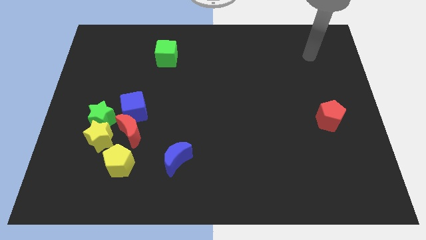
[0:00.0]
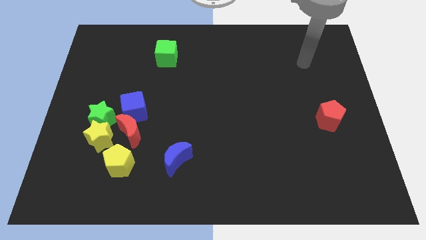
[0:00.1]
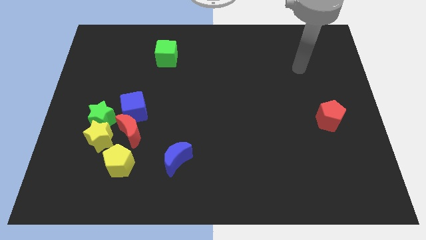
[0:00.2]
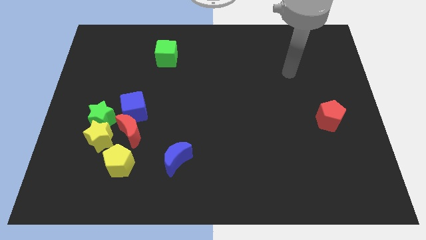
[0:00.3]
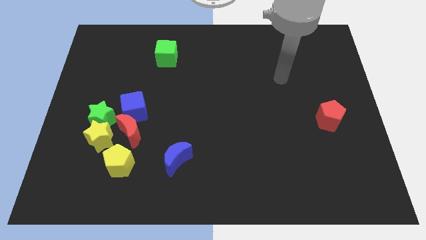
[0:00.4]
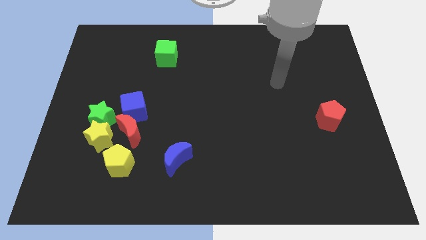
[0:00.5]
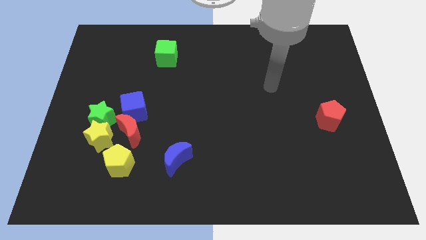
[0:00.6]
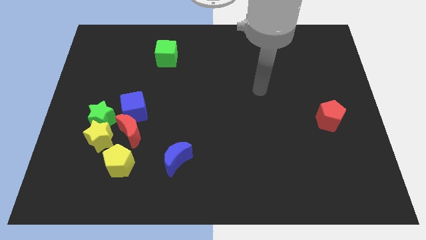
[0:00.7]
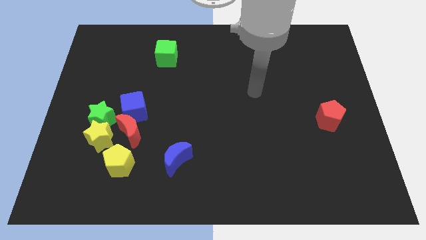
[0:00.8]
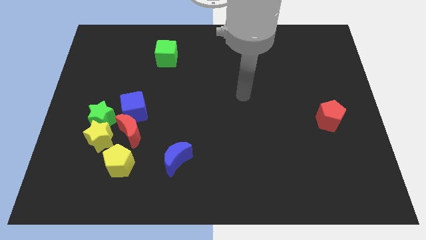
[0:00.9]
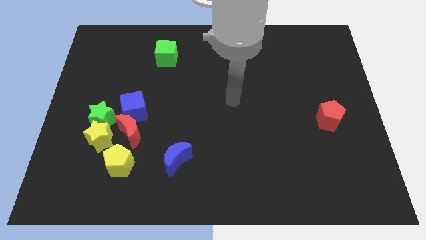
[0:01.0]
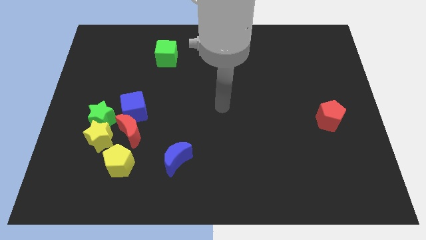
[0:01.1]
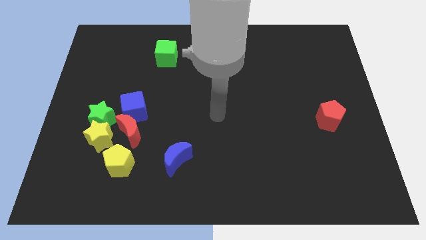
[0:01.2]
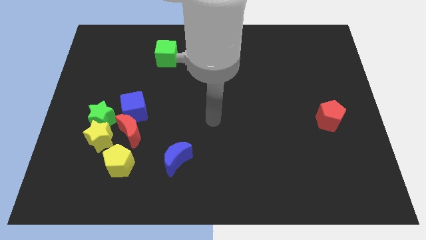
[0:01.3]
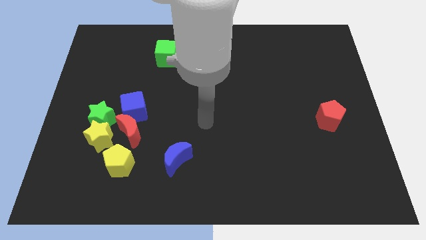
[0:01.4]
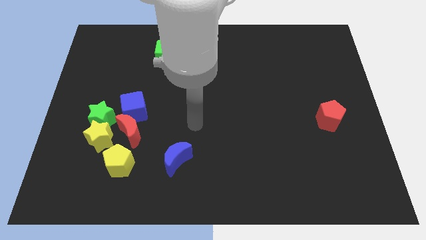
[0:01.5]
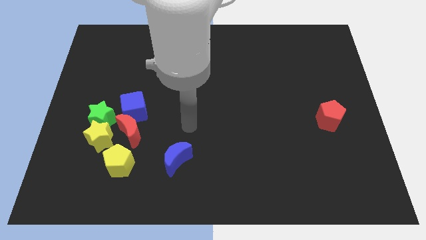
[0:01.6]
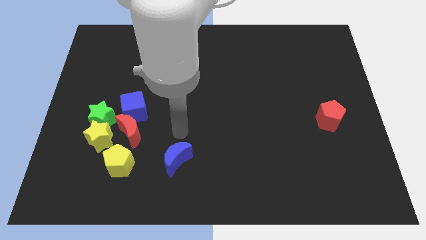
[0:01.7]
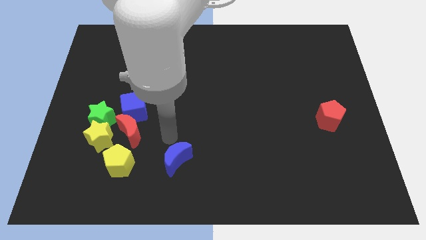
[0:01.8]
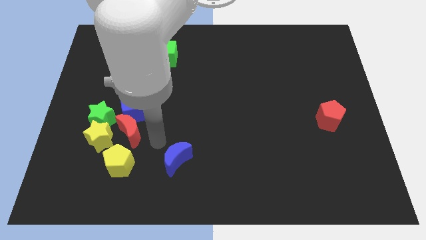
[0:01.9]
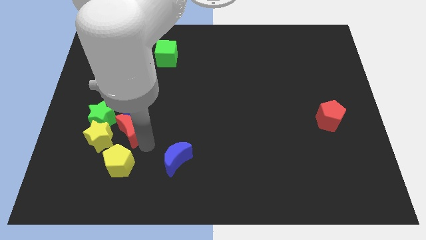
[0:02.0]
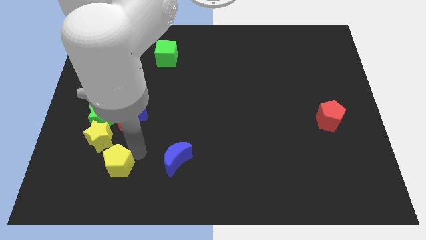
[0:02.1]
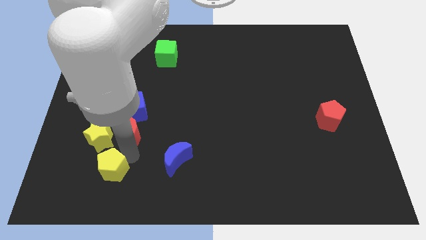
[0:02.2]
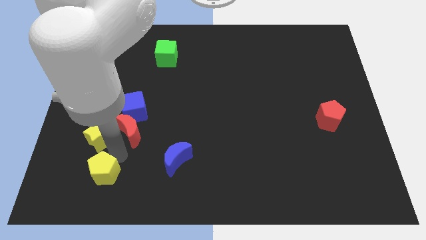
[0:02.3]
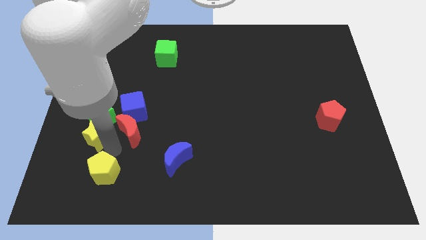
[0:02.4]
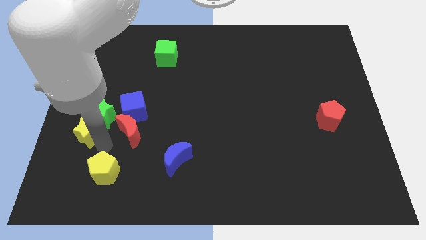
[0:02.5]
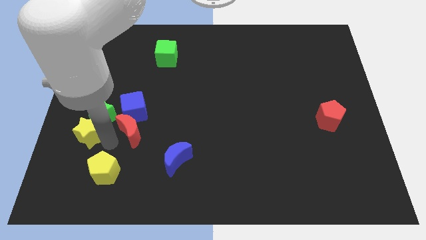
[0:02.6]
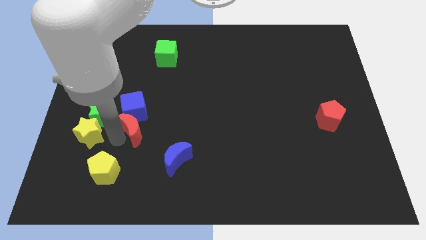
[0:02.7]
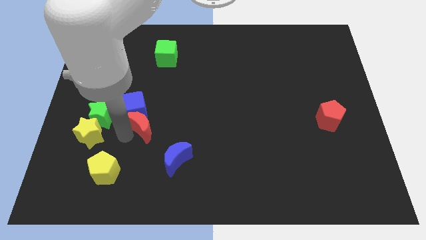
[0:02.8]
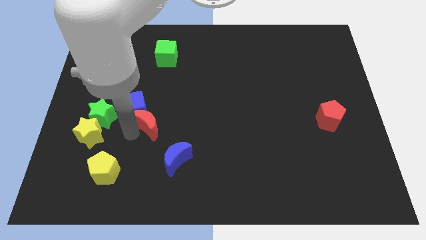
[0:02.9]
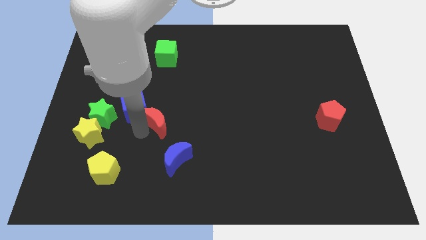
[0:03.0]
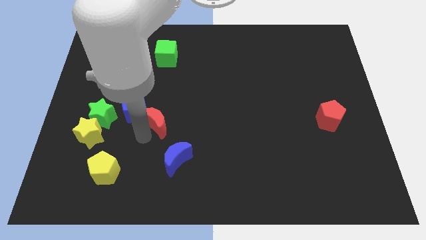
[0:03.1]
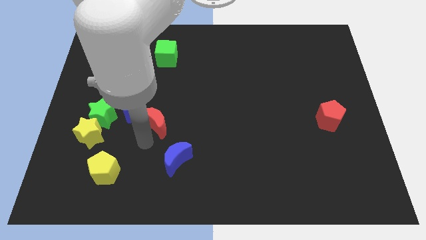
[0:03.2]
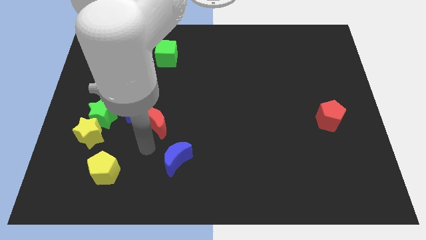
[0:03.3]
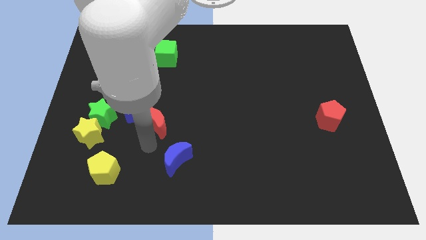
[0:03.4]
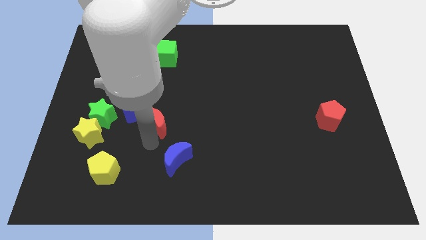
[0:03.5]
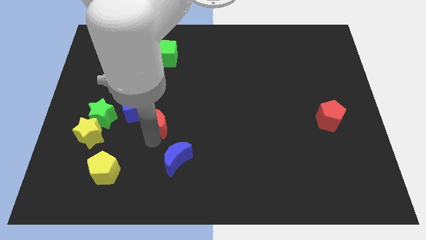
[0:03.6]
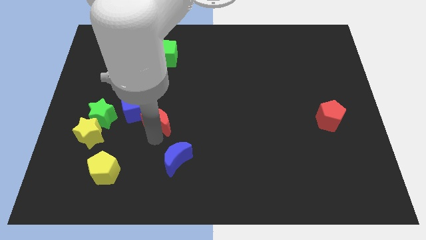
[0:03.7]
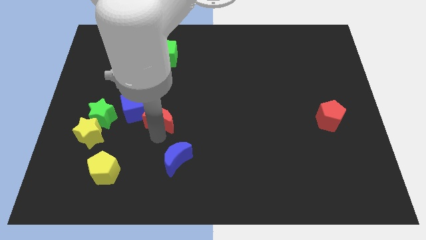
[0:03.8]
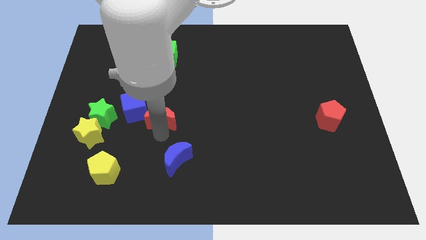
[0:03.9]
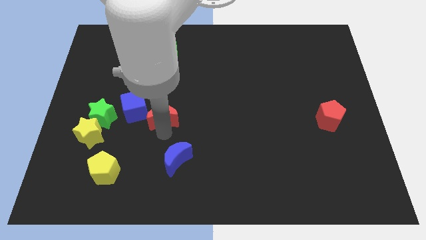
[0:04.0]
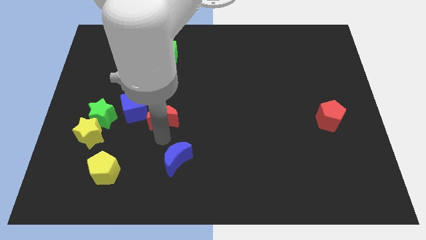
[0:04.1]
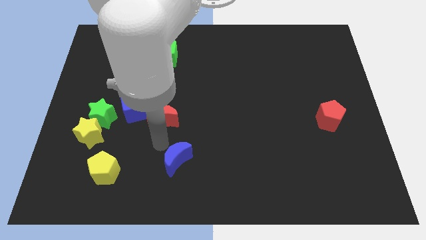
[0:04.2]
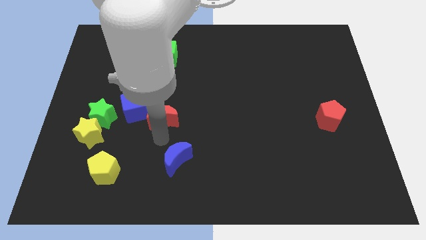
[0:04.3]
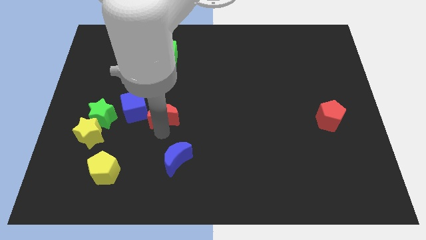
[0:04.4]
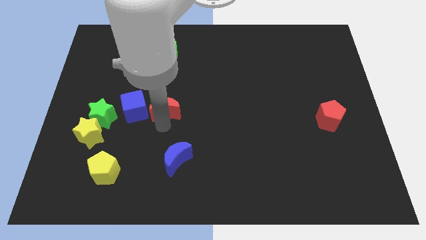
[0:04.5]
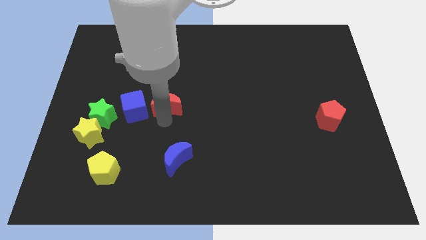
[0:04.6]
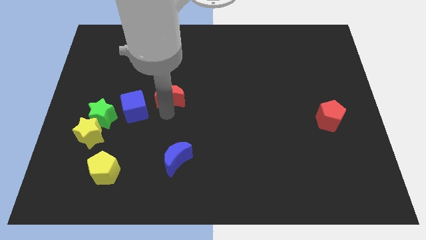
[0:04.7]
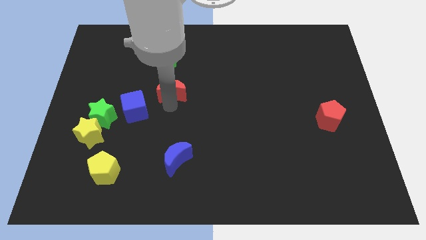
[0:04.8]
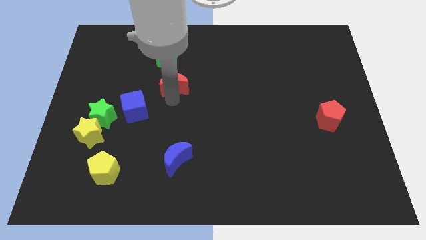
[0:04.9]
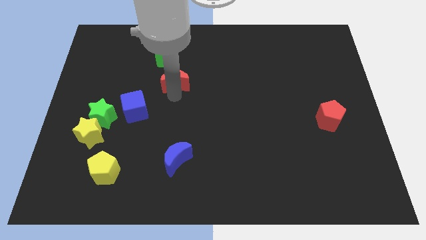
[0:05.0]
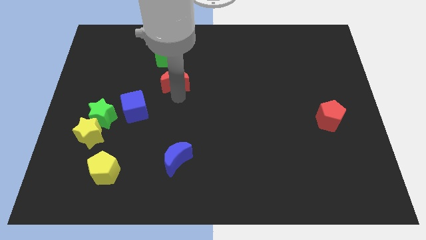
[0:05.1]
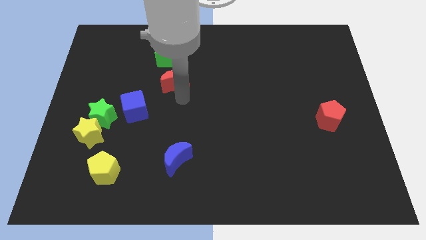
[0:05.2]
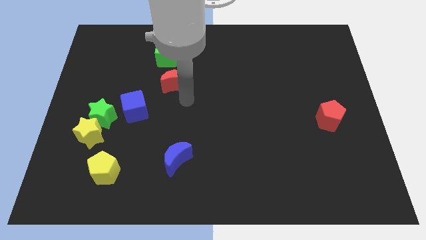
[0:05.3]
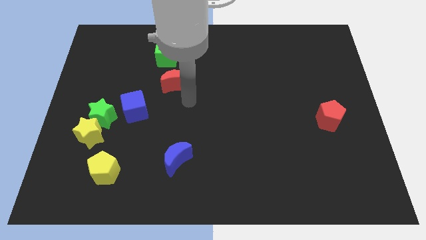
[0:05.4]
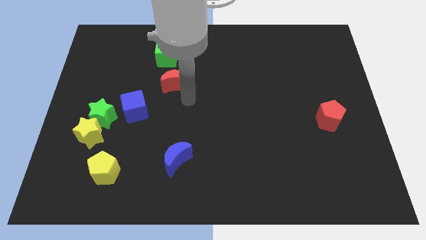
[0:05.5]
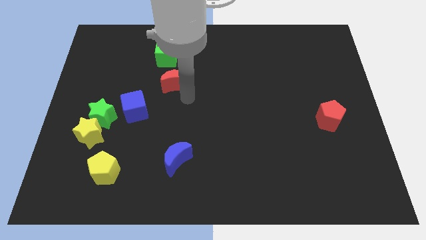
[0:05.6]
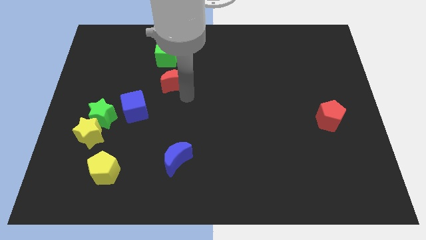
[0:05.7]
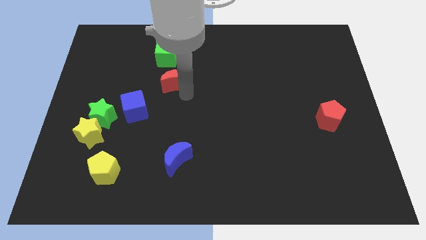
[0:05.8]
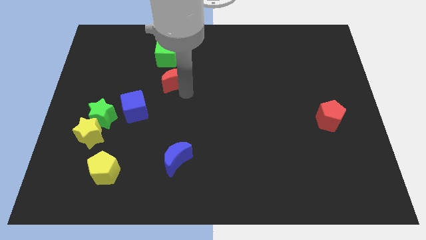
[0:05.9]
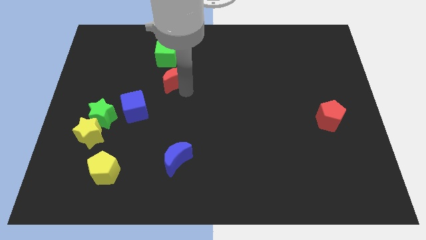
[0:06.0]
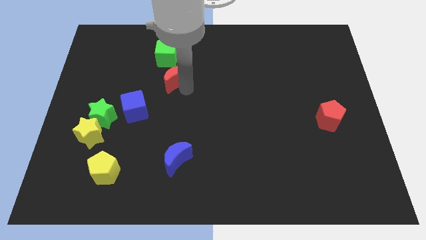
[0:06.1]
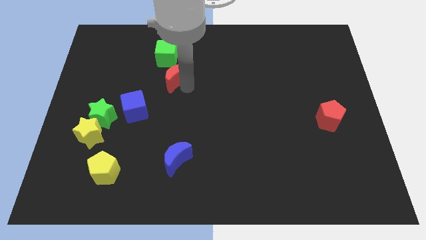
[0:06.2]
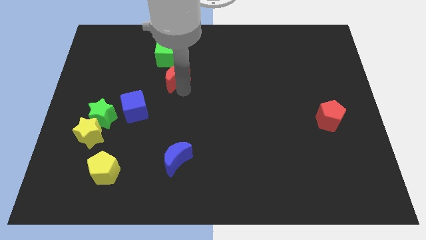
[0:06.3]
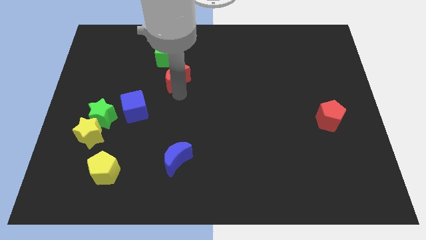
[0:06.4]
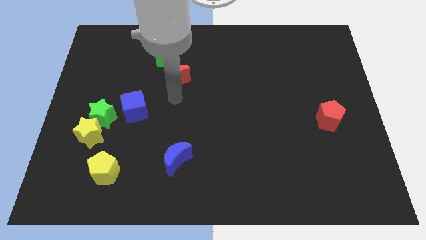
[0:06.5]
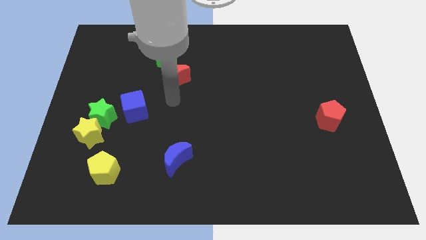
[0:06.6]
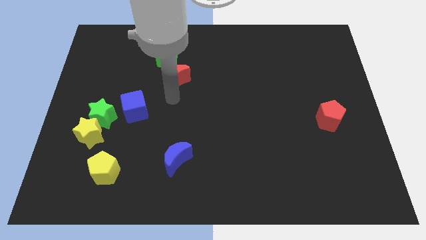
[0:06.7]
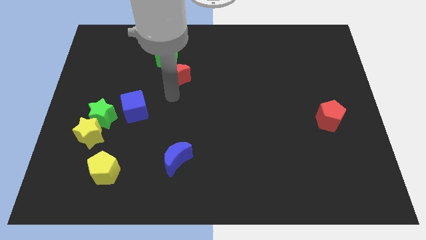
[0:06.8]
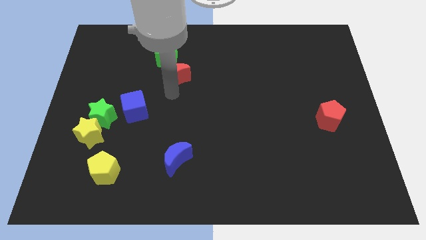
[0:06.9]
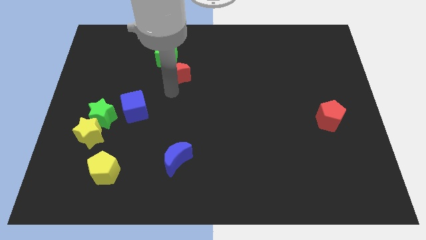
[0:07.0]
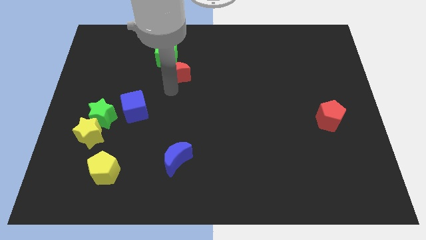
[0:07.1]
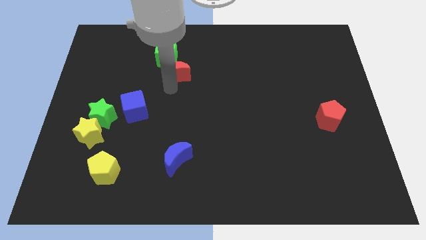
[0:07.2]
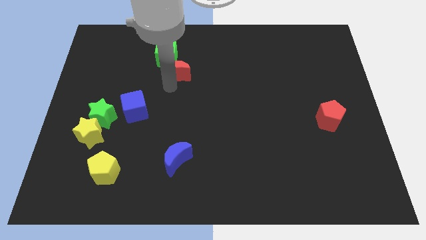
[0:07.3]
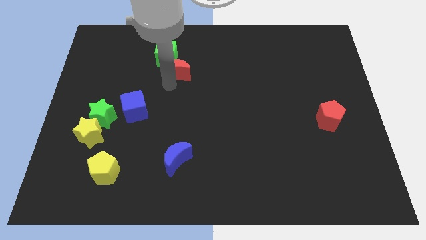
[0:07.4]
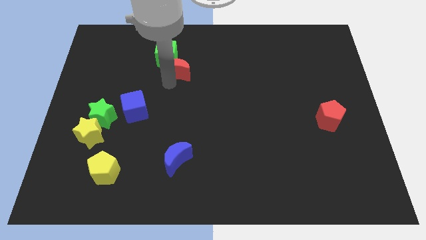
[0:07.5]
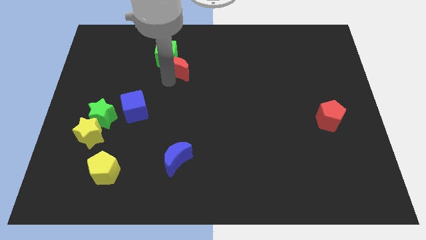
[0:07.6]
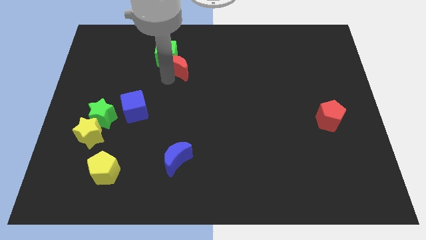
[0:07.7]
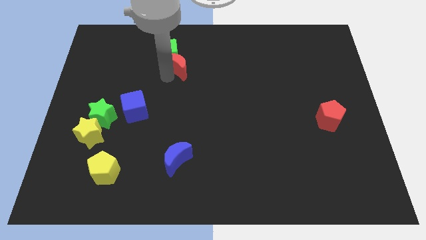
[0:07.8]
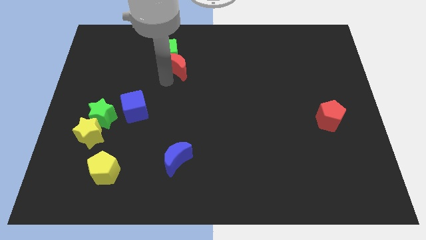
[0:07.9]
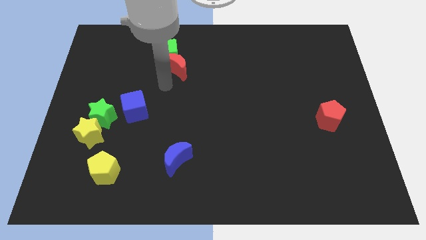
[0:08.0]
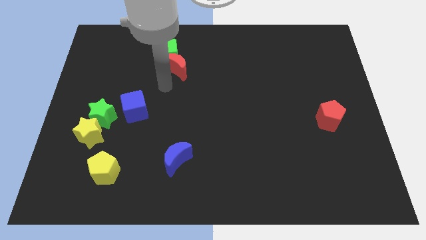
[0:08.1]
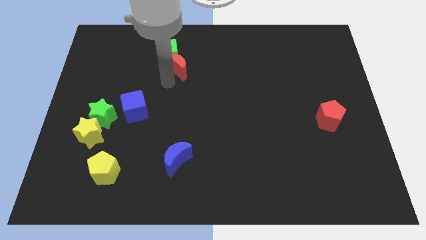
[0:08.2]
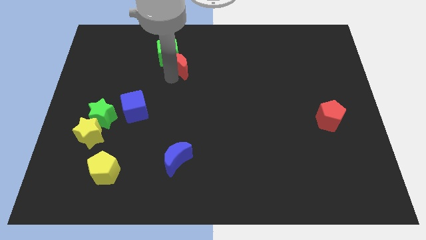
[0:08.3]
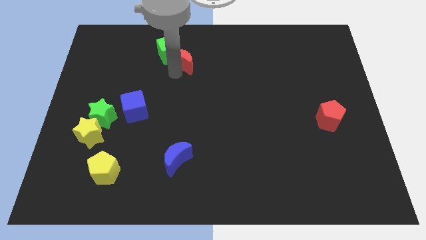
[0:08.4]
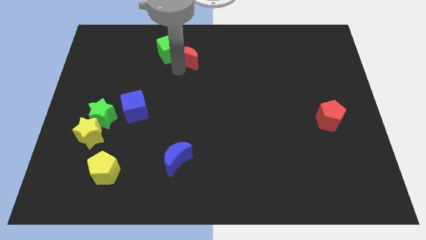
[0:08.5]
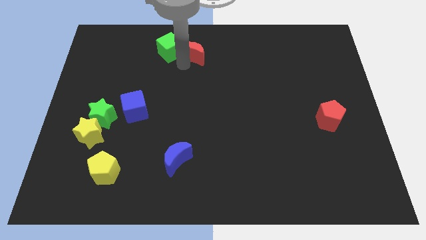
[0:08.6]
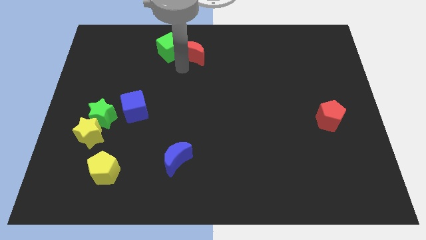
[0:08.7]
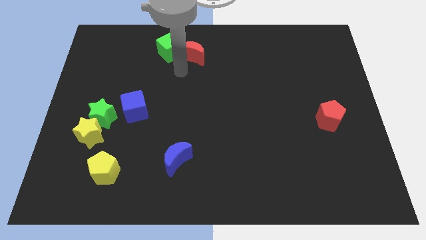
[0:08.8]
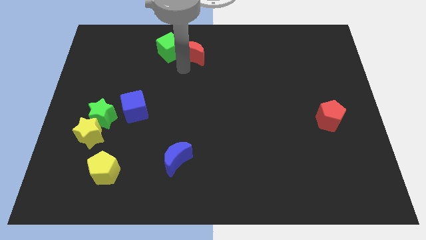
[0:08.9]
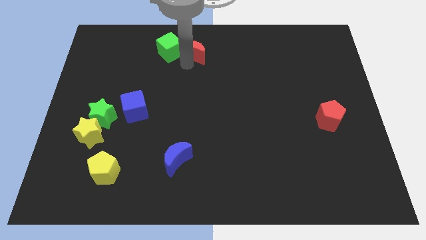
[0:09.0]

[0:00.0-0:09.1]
put the red moon to the top
